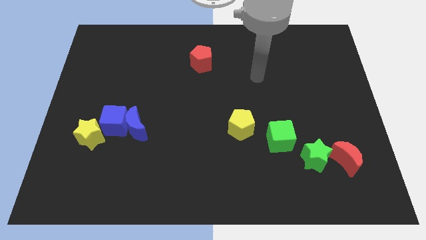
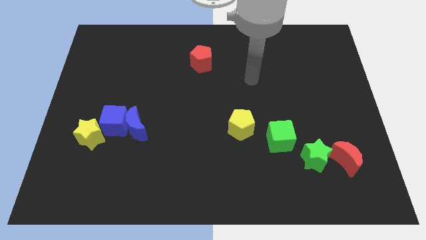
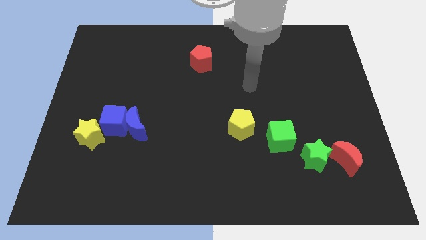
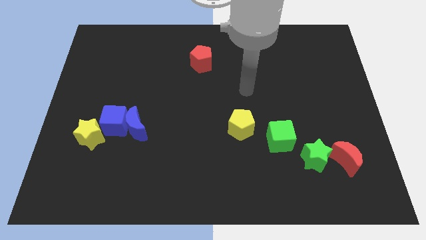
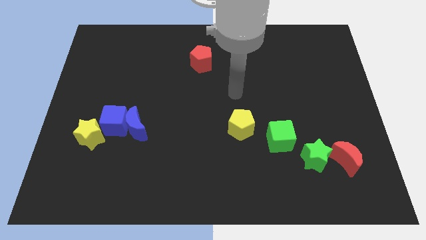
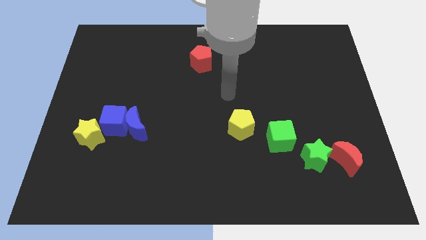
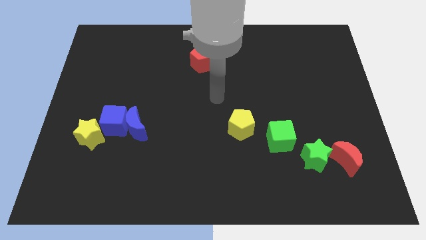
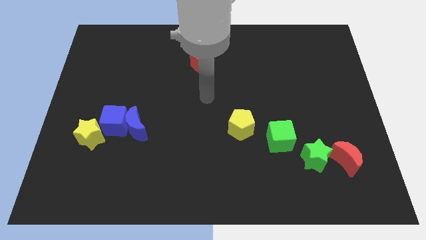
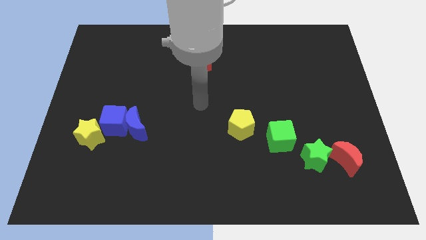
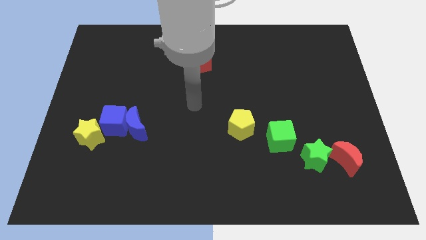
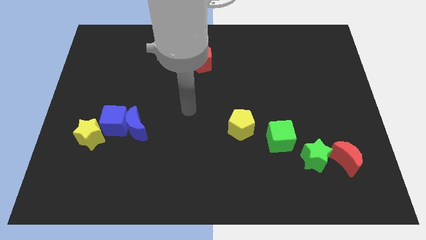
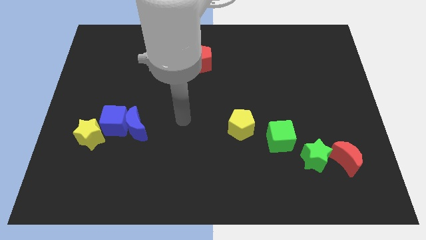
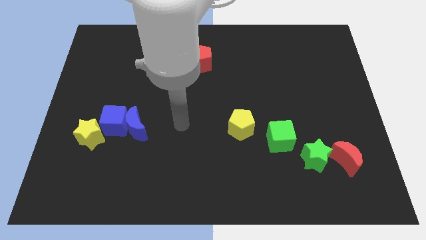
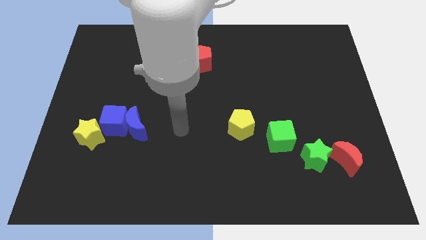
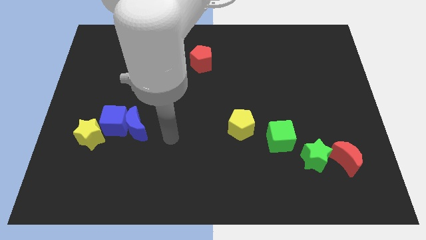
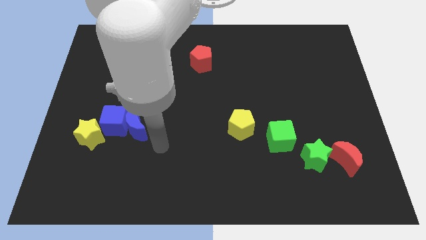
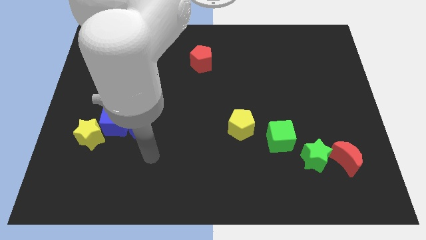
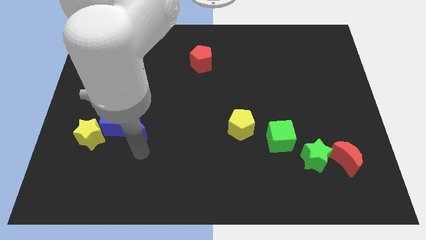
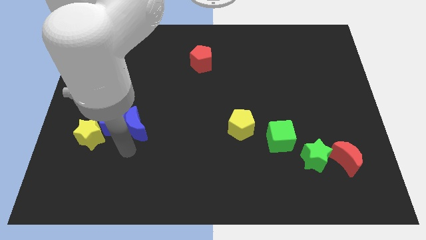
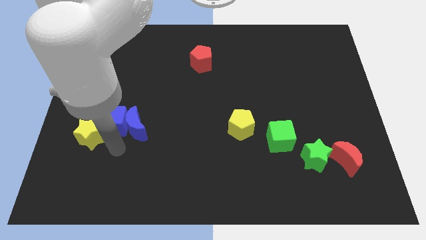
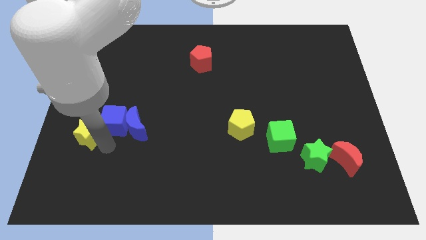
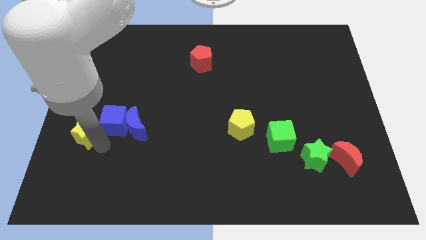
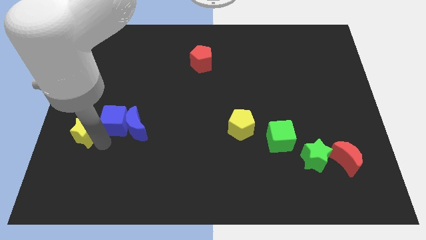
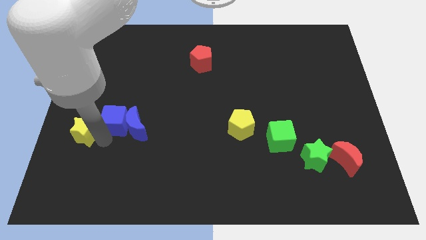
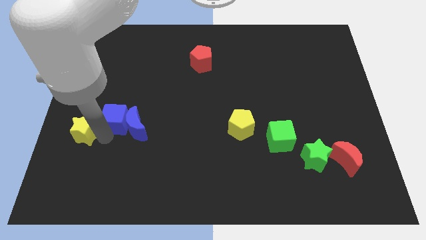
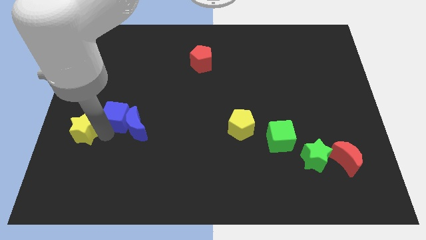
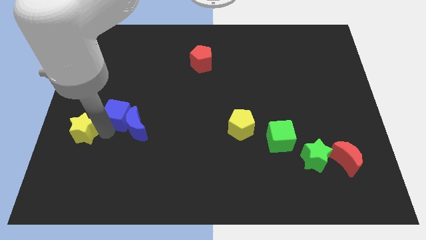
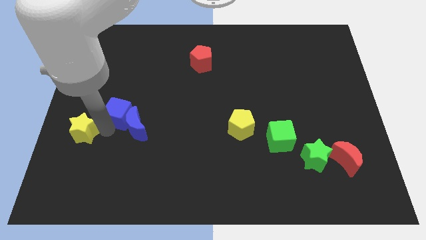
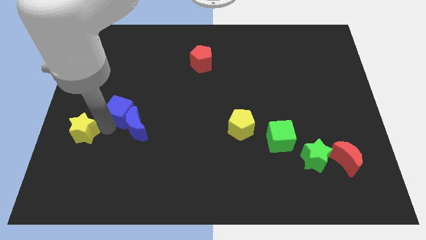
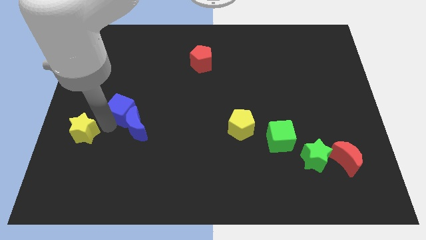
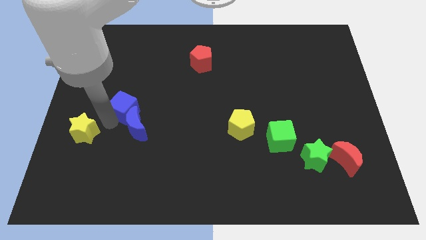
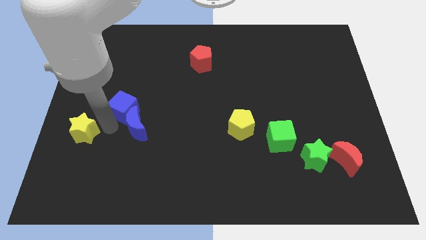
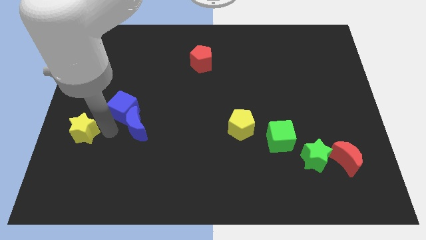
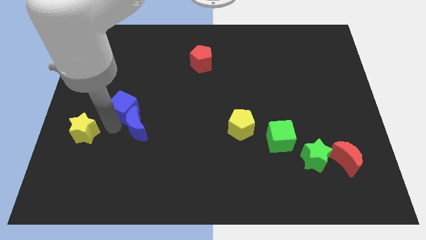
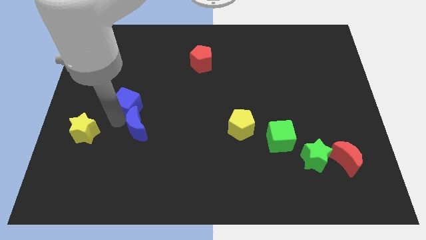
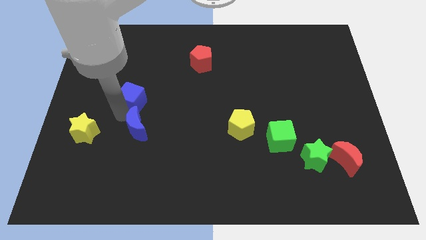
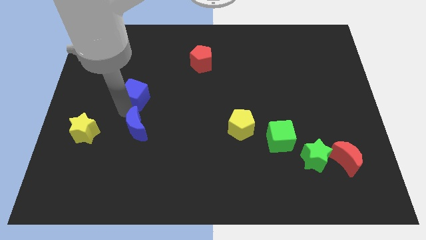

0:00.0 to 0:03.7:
separate the blue cube from the blue moon and yellow star

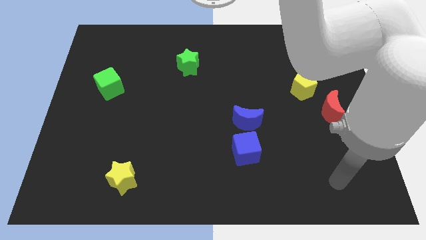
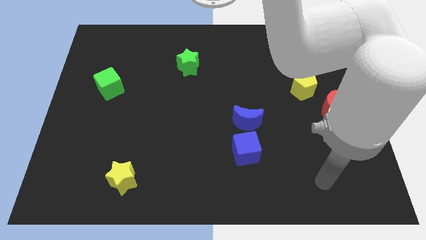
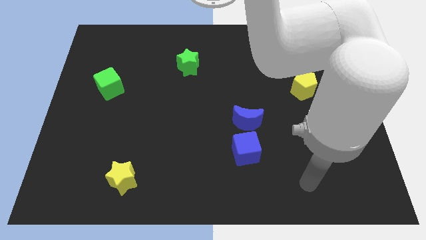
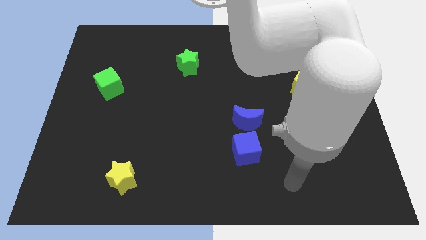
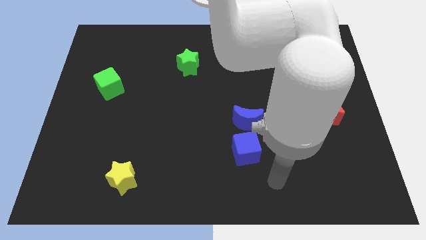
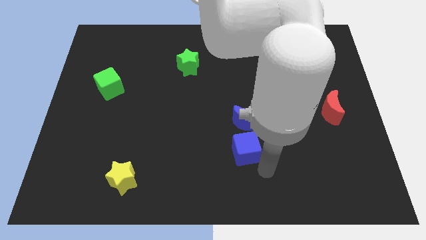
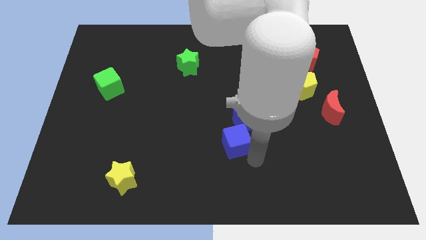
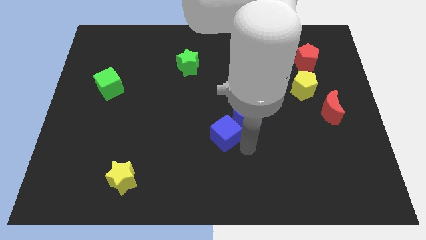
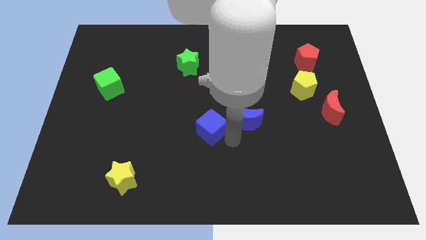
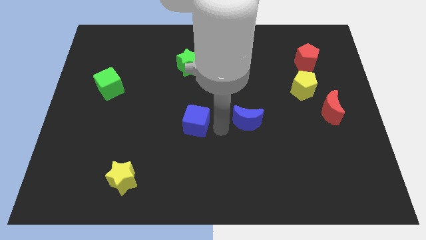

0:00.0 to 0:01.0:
separate the blue moon from the blue cube

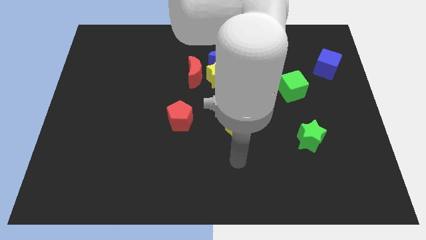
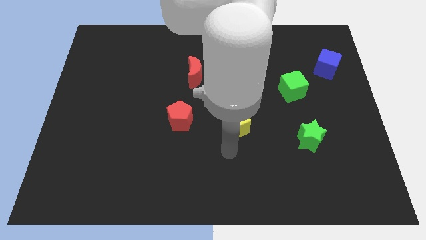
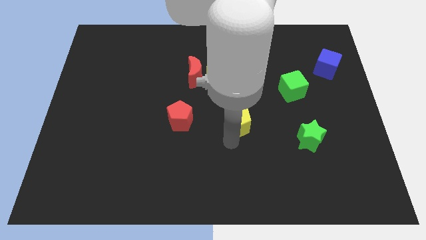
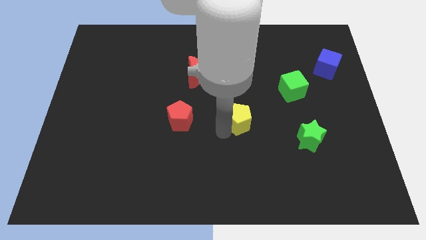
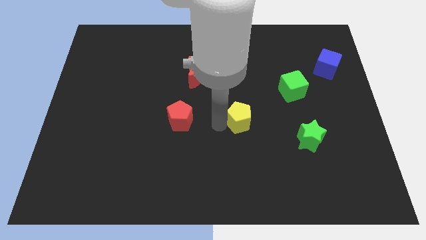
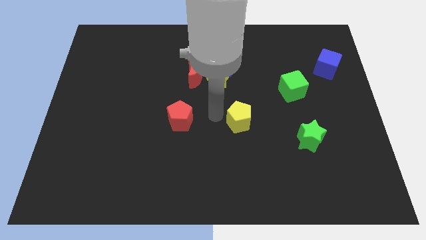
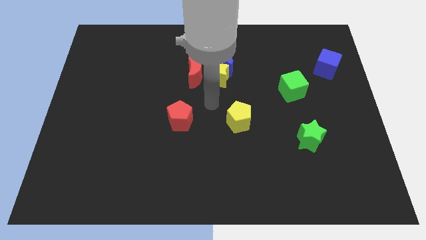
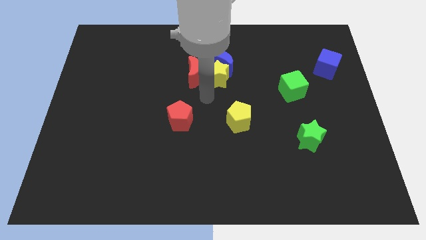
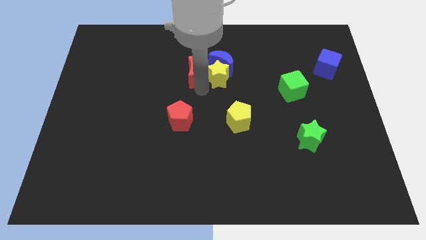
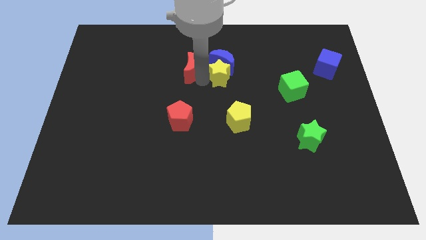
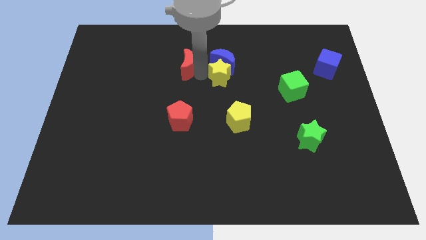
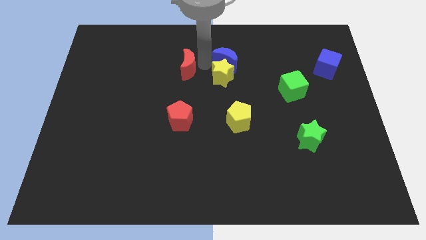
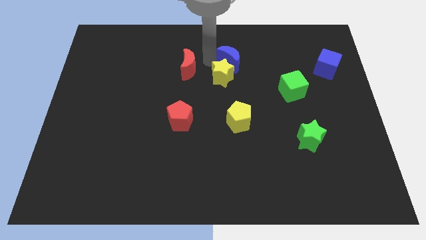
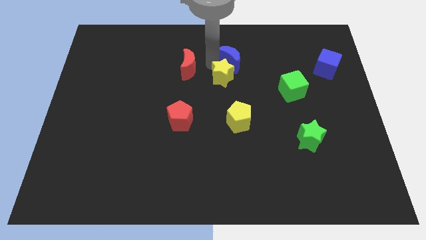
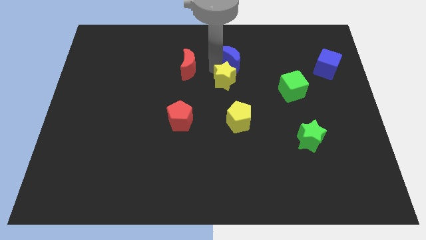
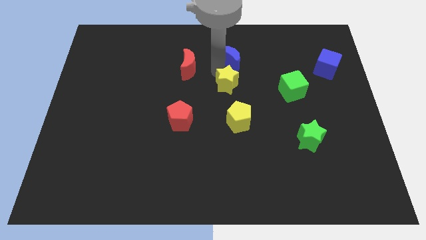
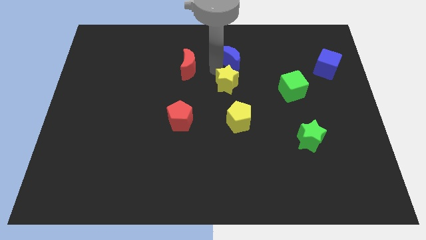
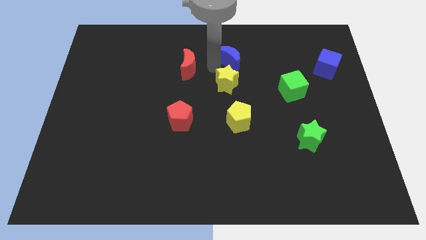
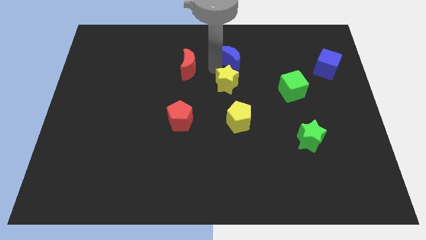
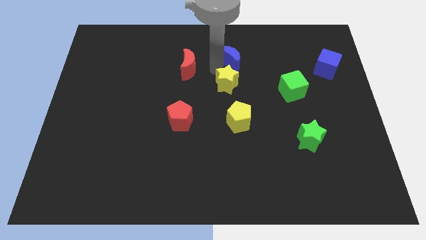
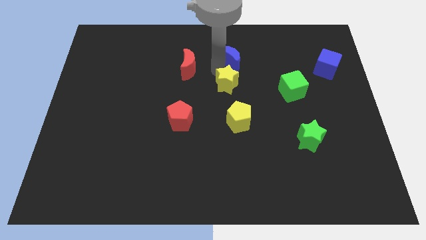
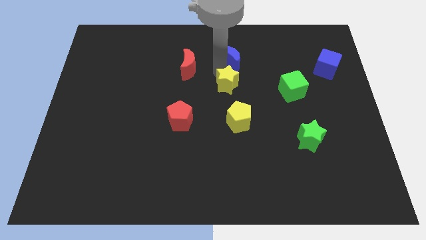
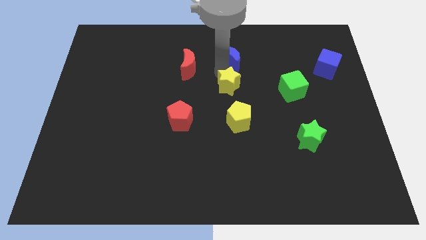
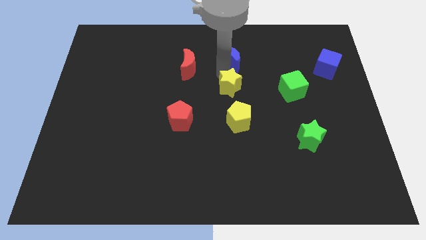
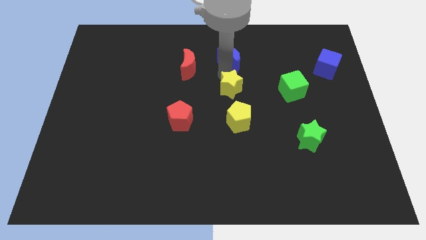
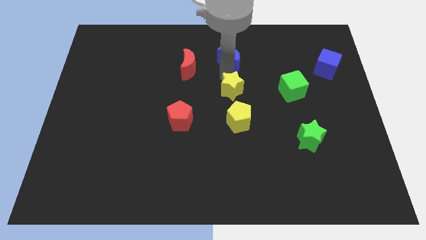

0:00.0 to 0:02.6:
separate the yellow star from the blue moon and red moon

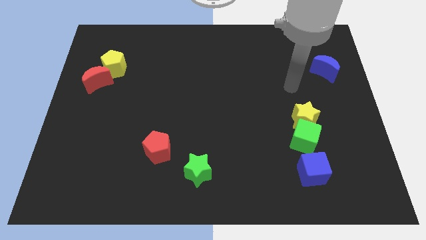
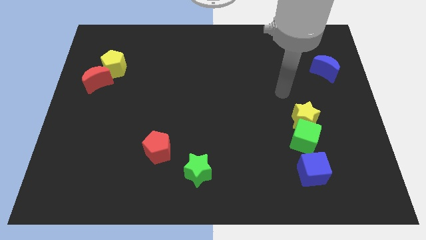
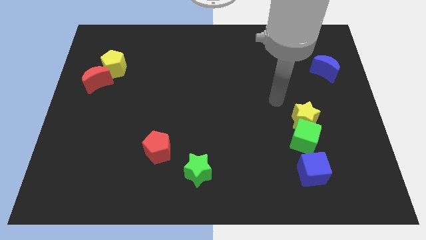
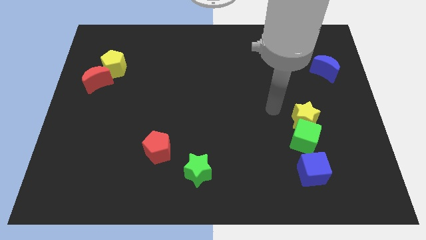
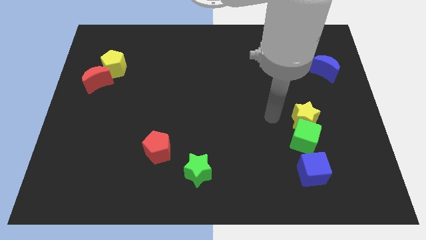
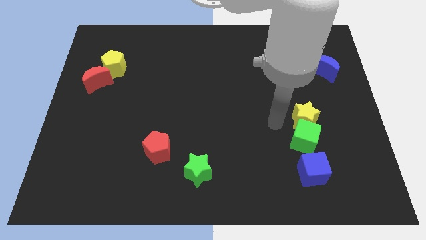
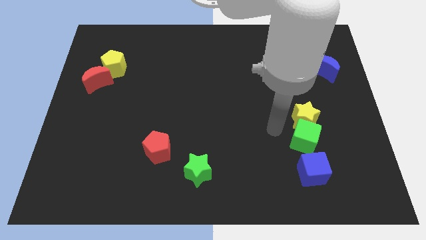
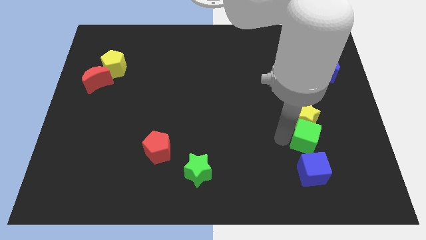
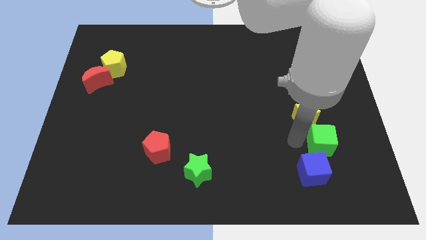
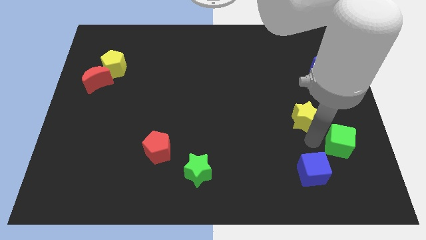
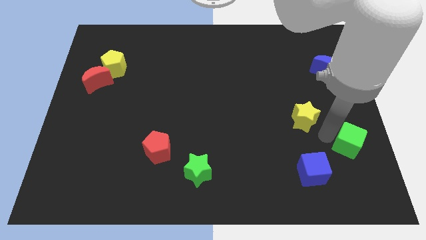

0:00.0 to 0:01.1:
separate the yellow star from the green cube

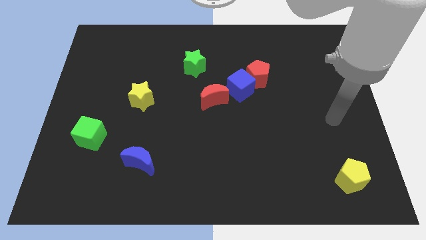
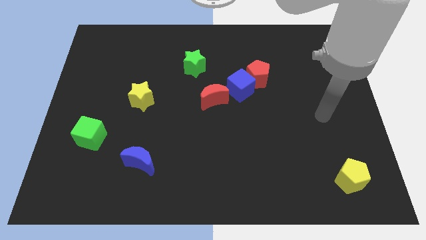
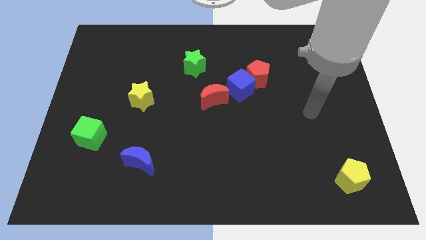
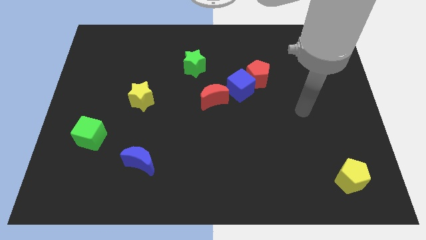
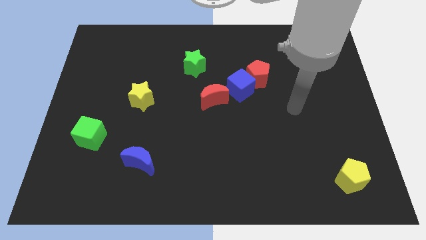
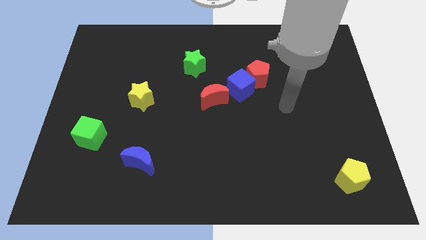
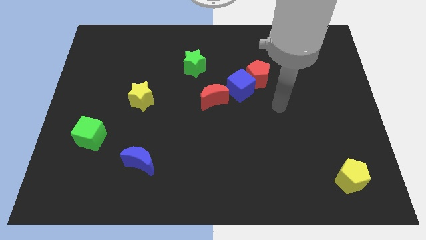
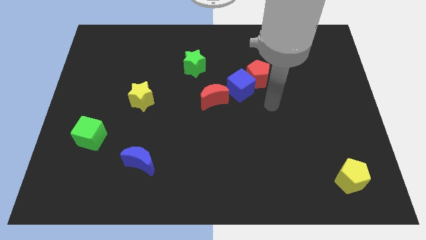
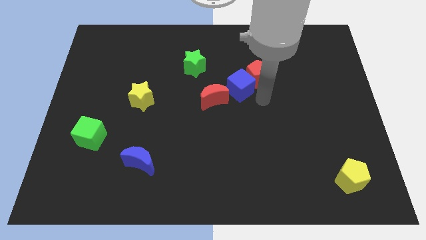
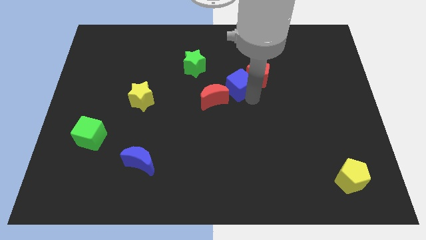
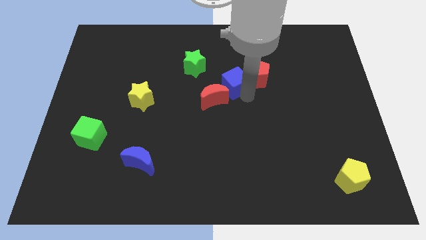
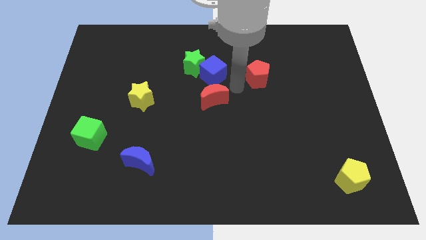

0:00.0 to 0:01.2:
move the red pentagon away from the blue cube
